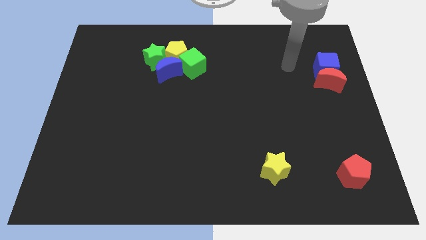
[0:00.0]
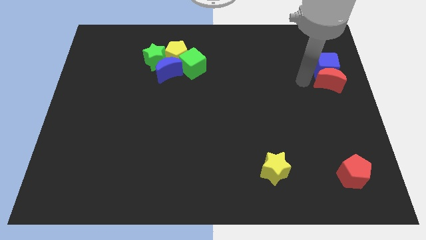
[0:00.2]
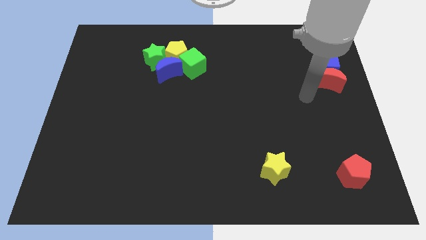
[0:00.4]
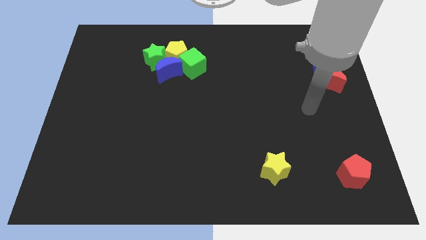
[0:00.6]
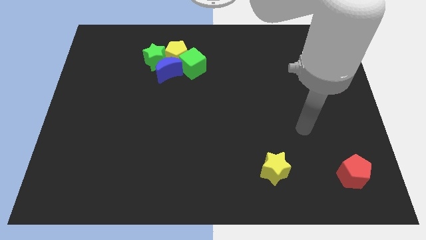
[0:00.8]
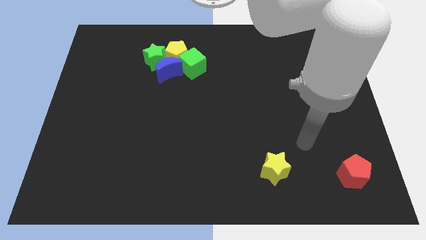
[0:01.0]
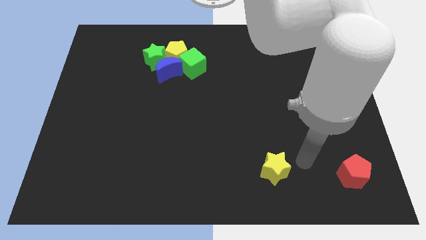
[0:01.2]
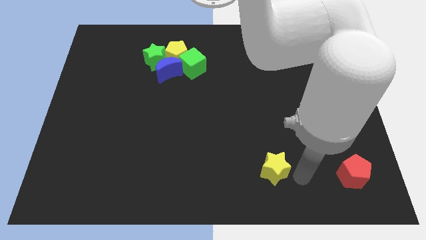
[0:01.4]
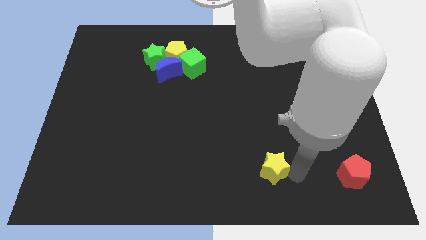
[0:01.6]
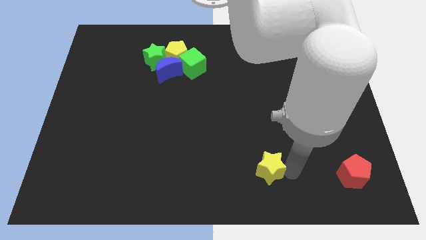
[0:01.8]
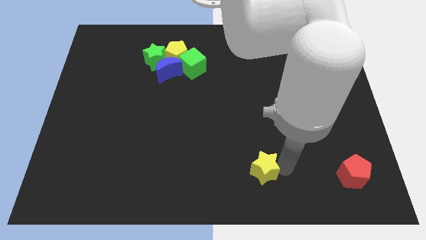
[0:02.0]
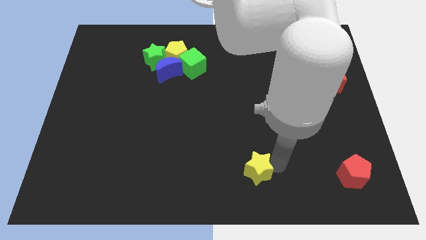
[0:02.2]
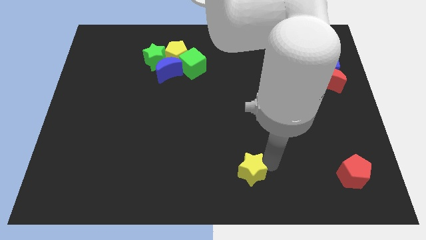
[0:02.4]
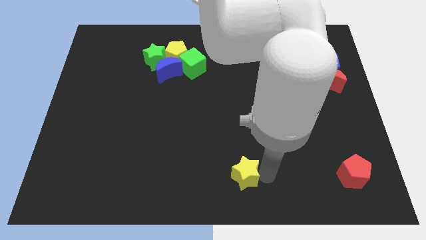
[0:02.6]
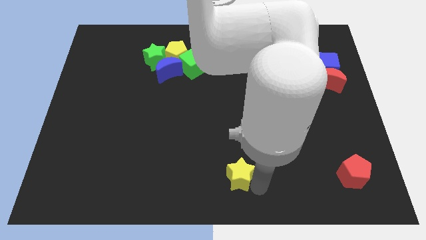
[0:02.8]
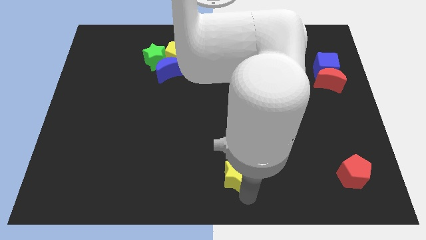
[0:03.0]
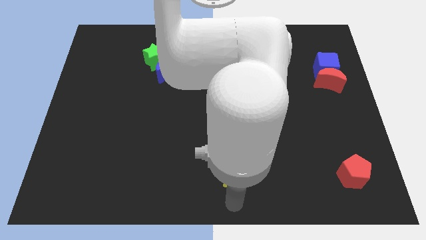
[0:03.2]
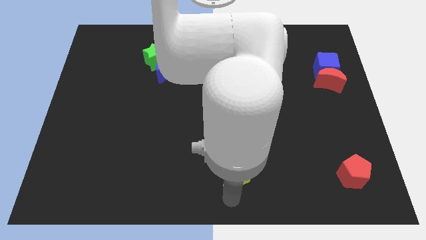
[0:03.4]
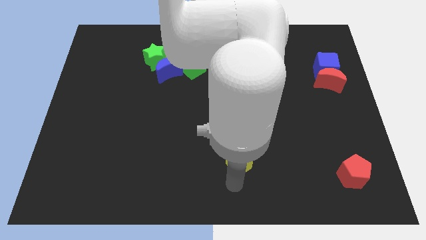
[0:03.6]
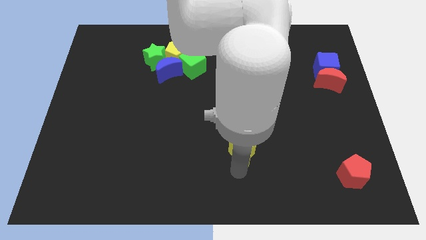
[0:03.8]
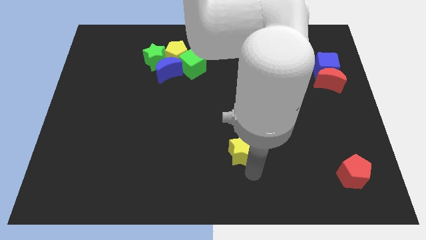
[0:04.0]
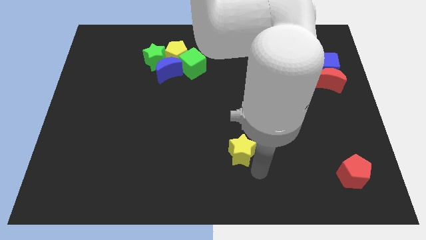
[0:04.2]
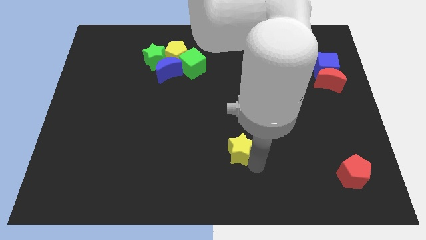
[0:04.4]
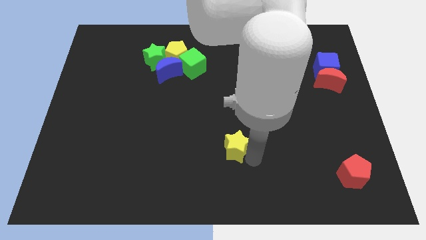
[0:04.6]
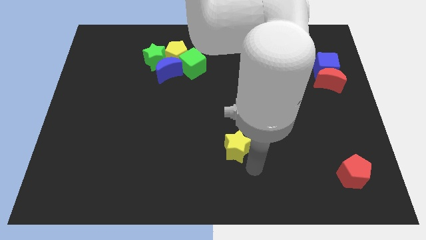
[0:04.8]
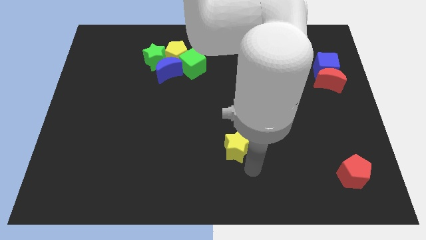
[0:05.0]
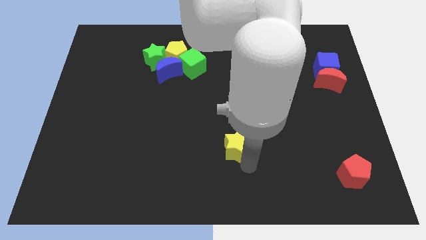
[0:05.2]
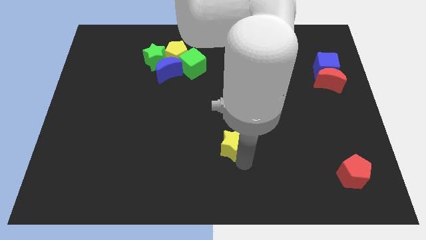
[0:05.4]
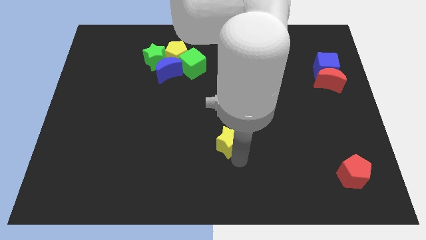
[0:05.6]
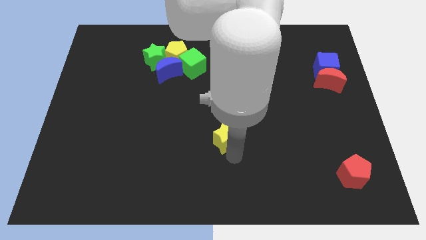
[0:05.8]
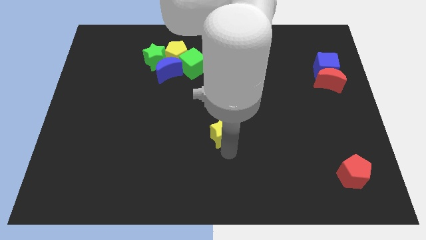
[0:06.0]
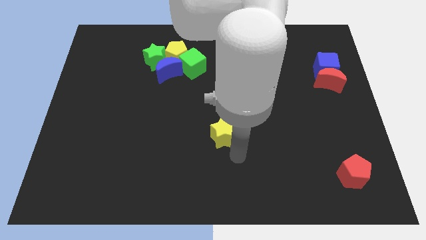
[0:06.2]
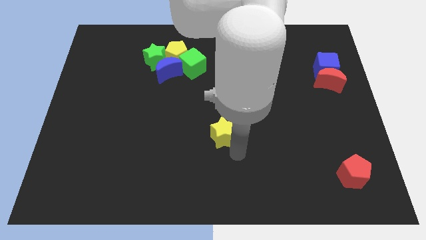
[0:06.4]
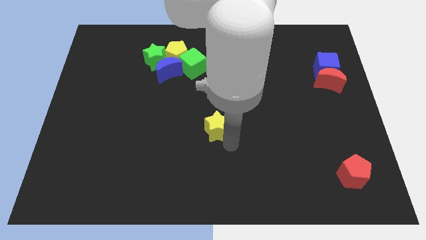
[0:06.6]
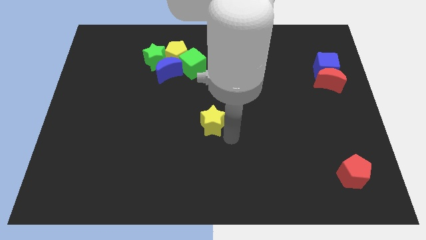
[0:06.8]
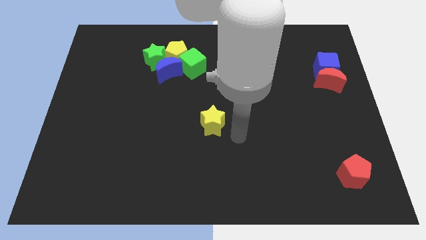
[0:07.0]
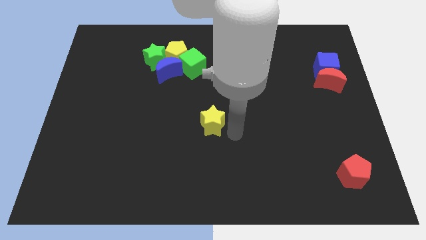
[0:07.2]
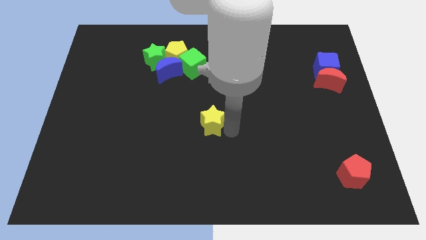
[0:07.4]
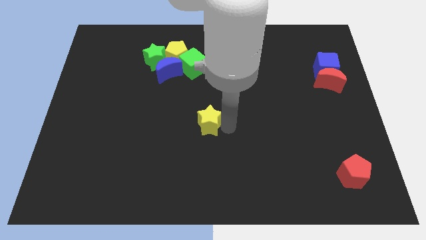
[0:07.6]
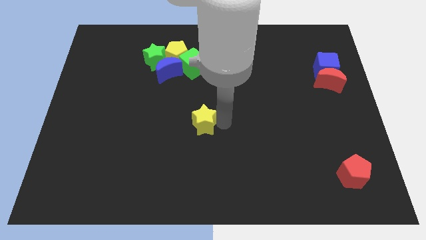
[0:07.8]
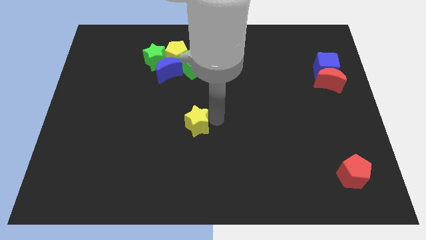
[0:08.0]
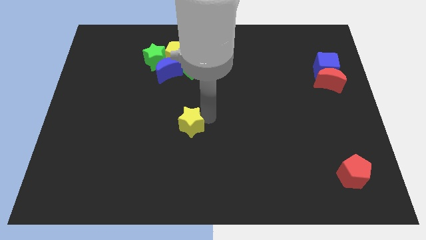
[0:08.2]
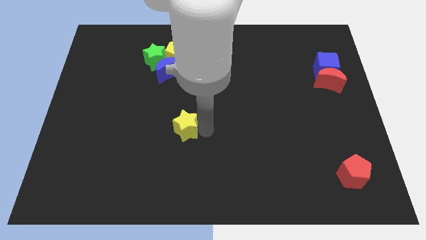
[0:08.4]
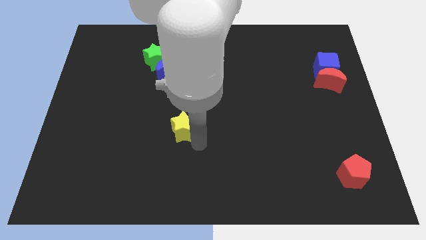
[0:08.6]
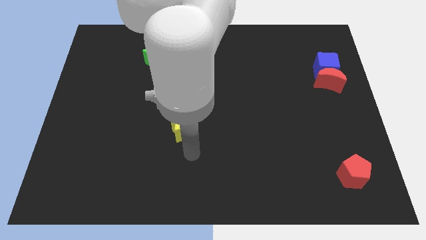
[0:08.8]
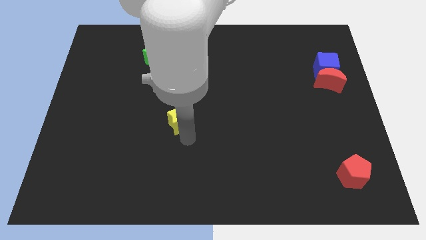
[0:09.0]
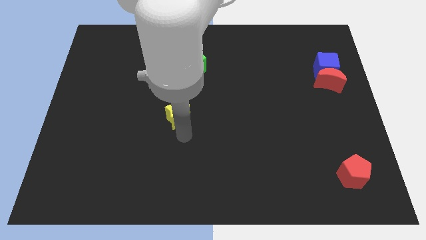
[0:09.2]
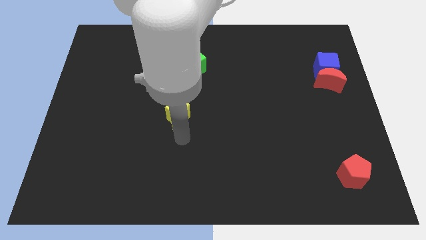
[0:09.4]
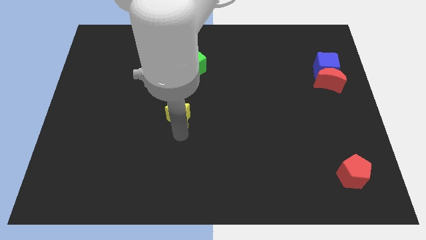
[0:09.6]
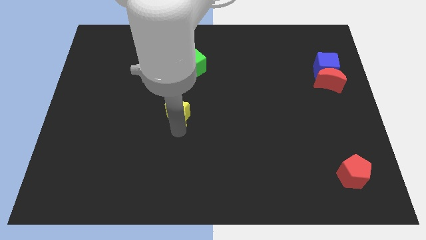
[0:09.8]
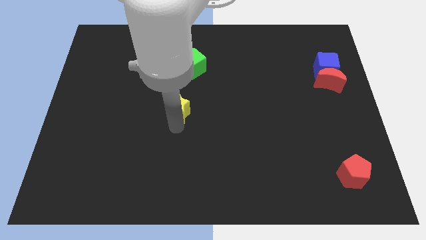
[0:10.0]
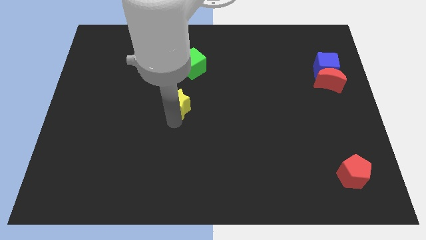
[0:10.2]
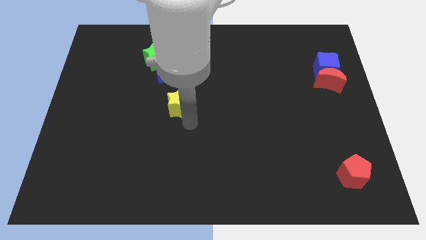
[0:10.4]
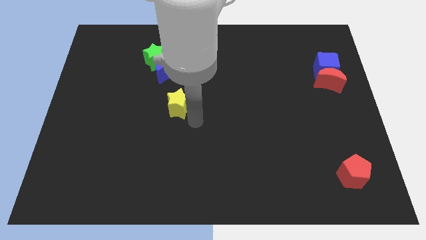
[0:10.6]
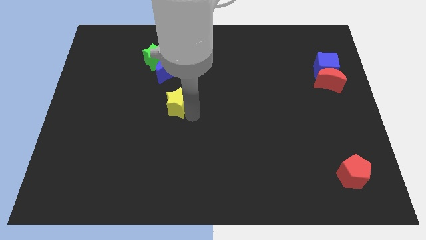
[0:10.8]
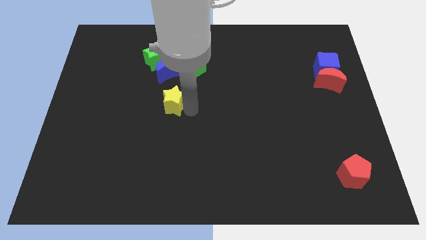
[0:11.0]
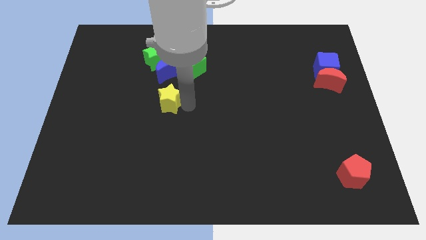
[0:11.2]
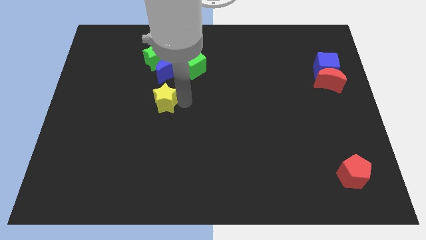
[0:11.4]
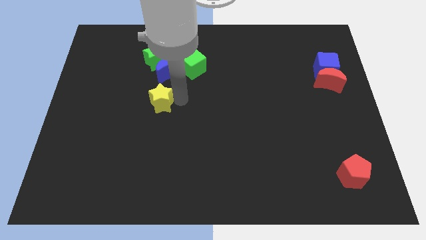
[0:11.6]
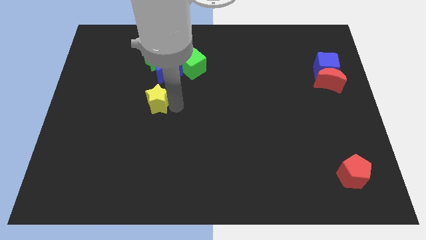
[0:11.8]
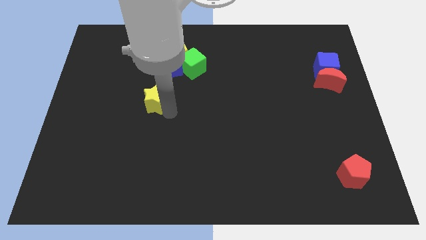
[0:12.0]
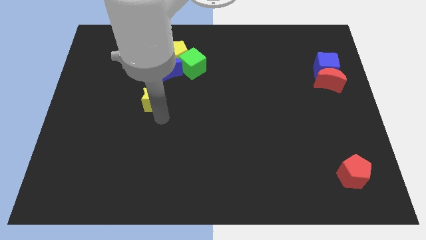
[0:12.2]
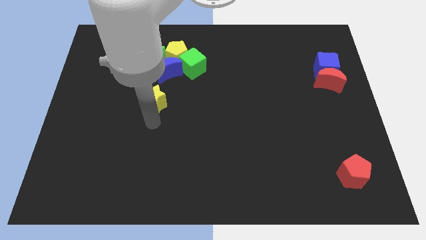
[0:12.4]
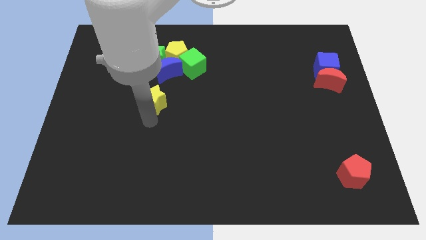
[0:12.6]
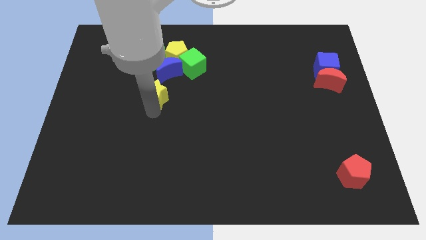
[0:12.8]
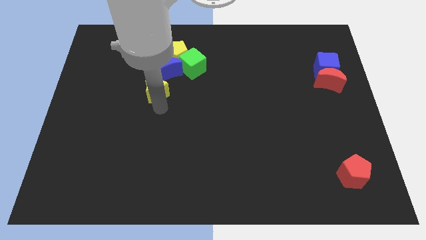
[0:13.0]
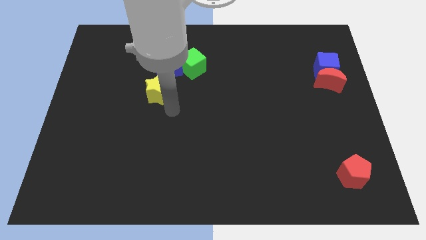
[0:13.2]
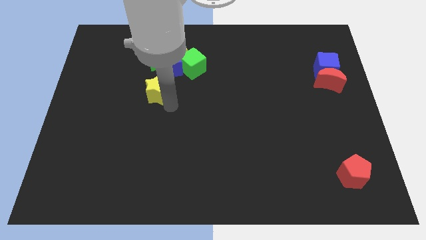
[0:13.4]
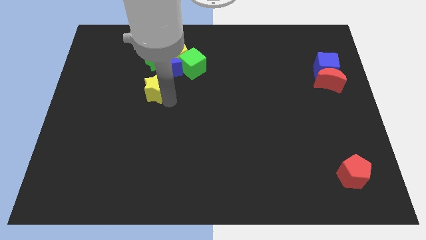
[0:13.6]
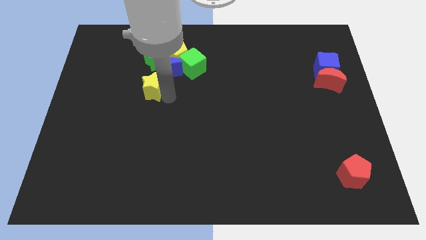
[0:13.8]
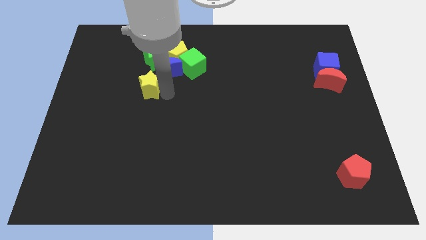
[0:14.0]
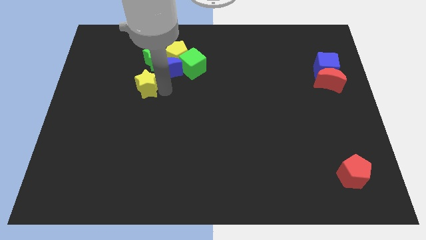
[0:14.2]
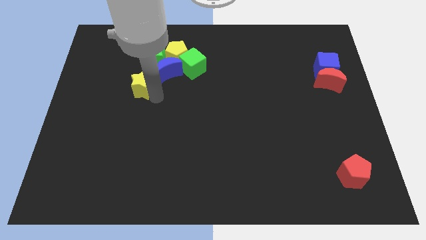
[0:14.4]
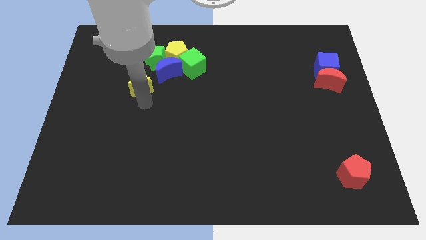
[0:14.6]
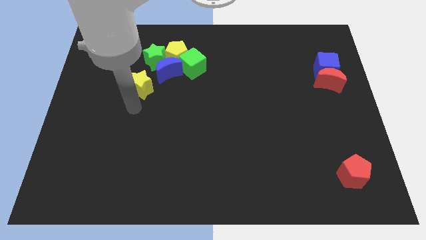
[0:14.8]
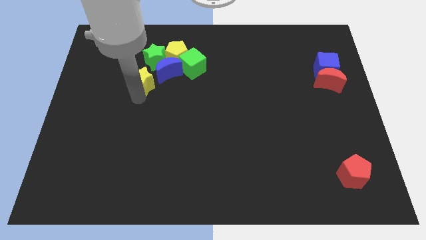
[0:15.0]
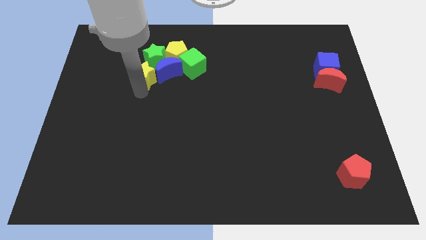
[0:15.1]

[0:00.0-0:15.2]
move the yellow star to the left of the green cube
